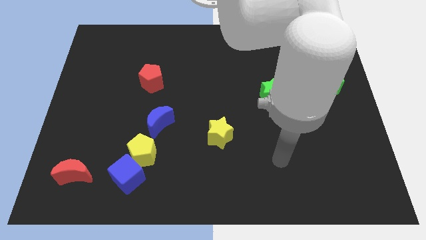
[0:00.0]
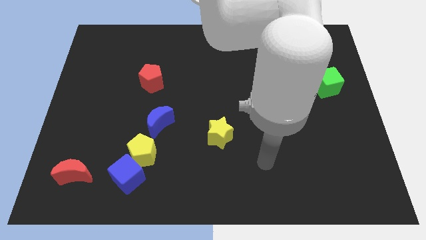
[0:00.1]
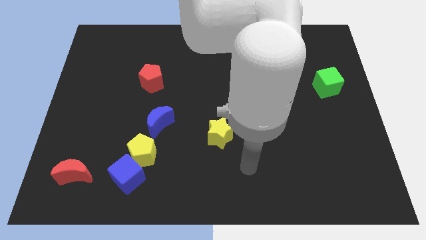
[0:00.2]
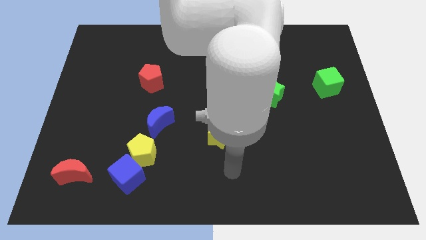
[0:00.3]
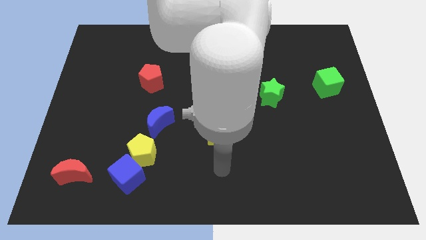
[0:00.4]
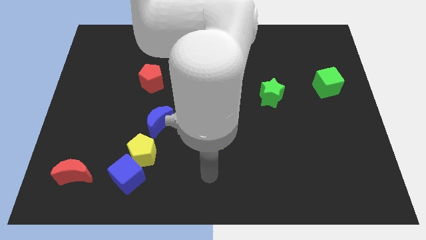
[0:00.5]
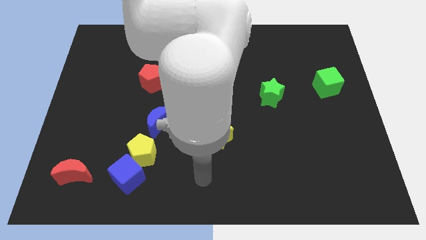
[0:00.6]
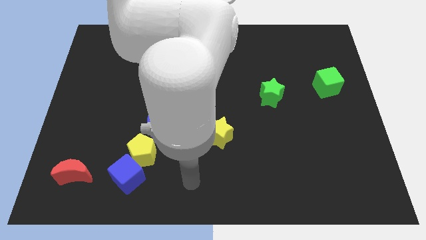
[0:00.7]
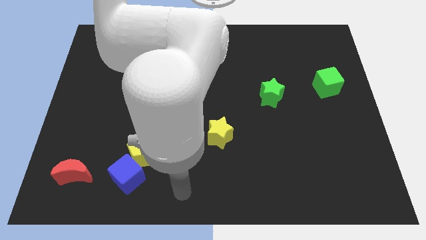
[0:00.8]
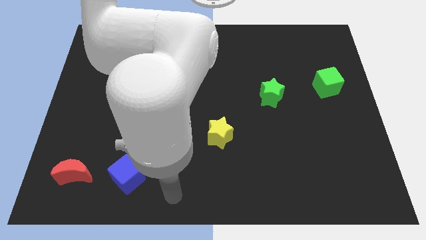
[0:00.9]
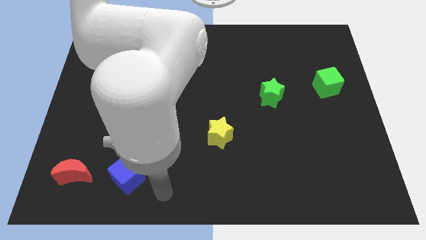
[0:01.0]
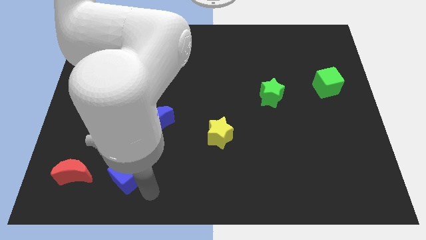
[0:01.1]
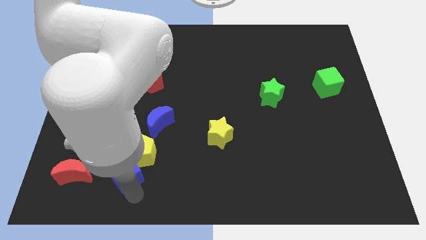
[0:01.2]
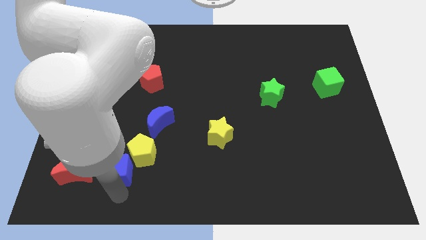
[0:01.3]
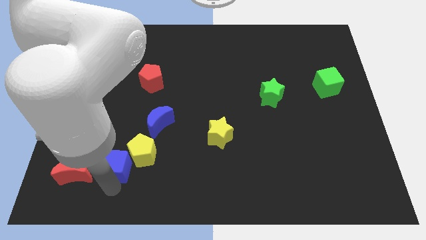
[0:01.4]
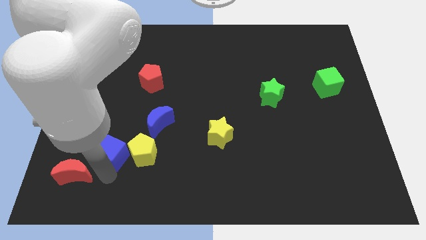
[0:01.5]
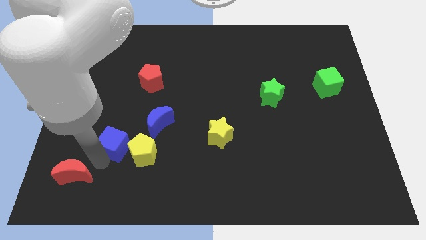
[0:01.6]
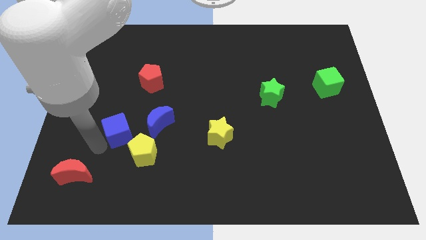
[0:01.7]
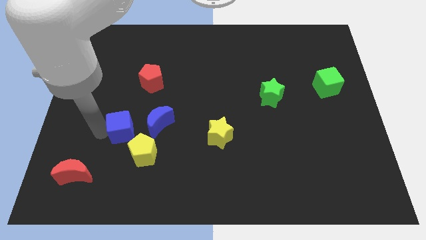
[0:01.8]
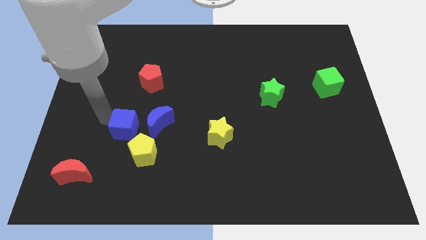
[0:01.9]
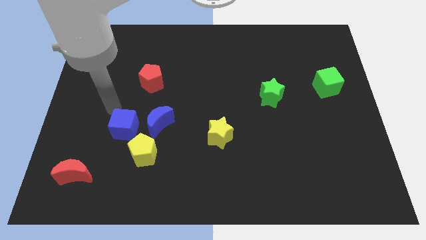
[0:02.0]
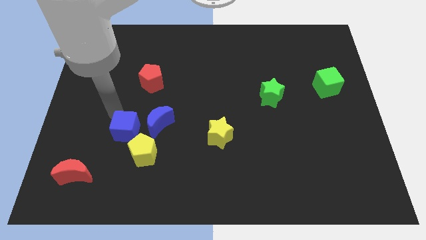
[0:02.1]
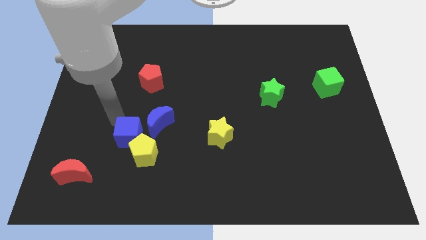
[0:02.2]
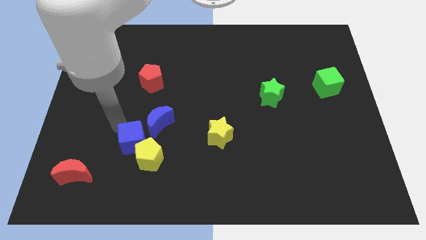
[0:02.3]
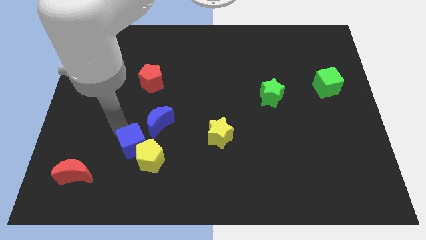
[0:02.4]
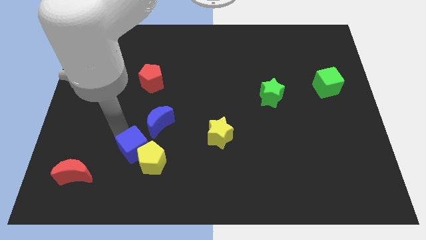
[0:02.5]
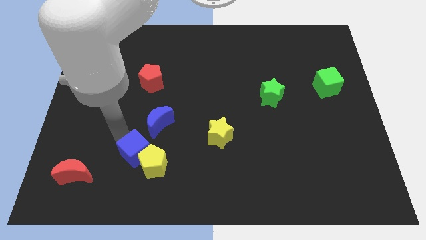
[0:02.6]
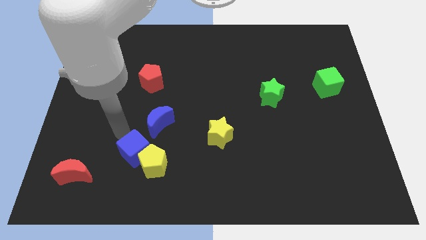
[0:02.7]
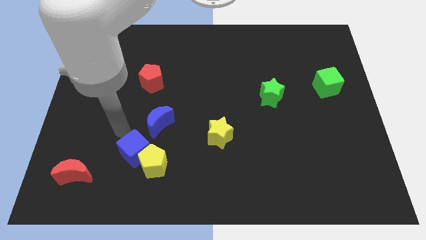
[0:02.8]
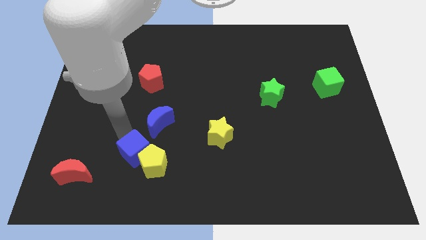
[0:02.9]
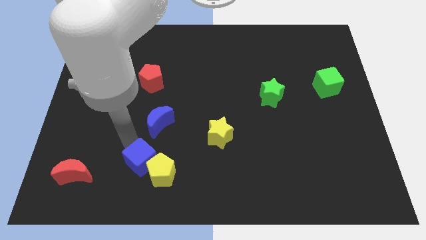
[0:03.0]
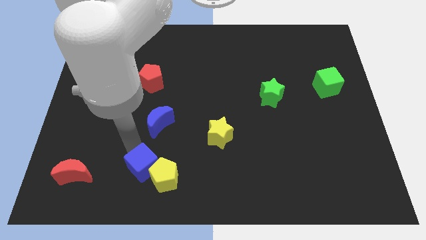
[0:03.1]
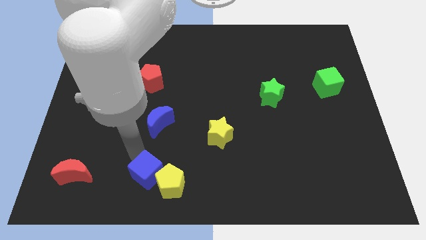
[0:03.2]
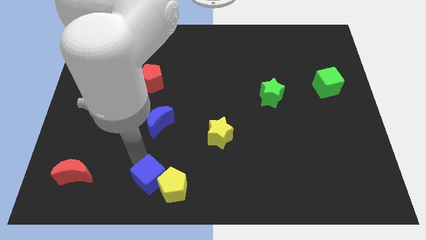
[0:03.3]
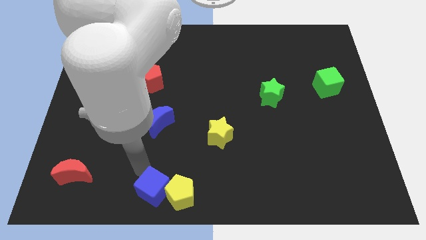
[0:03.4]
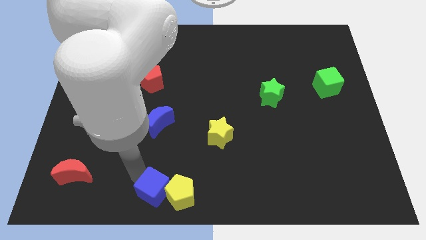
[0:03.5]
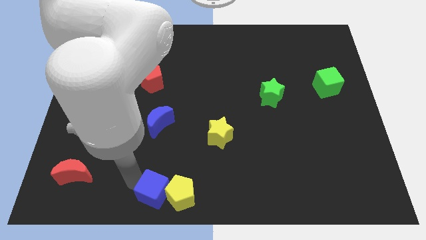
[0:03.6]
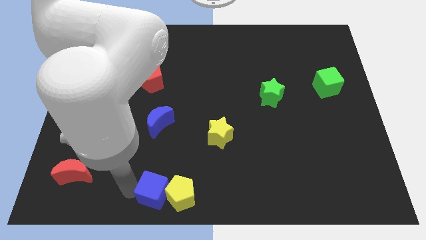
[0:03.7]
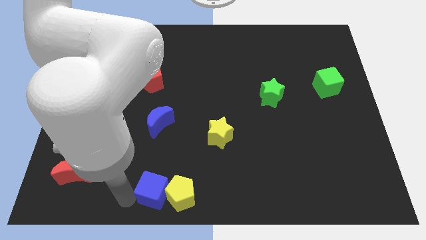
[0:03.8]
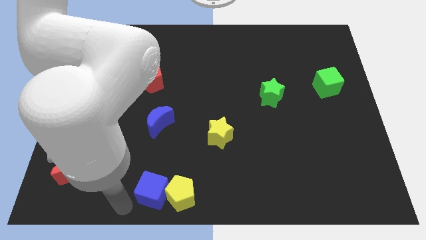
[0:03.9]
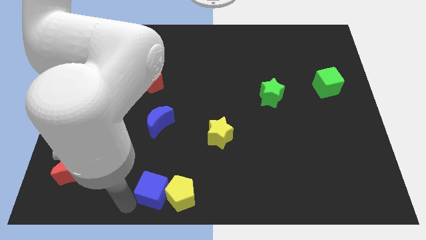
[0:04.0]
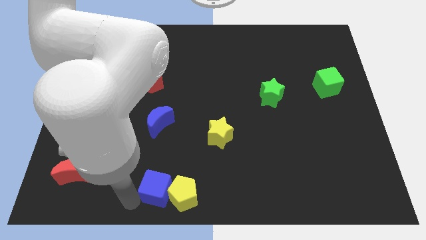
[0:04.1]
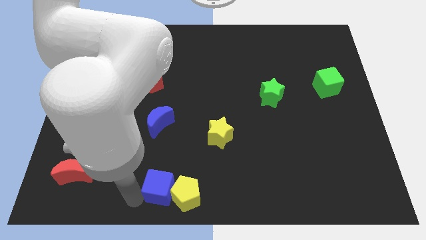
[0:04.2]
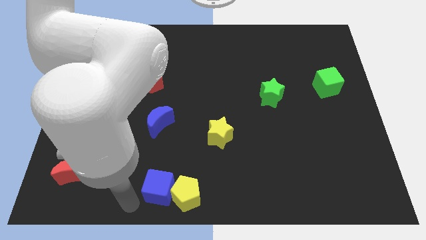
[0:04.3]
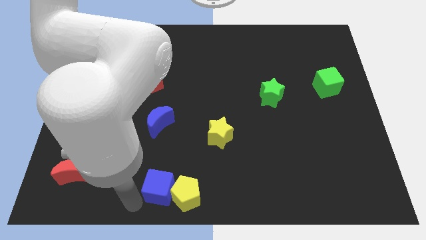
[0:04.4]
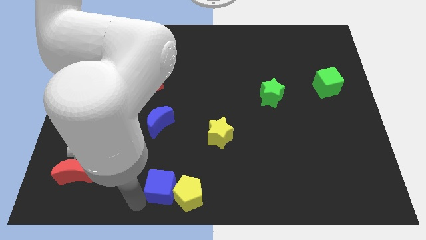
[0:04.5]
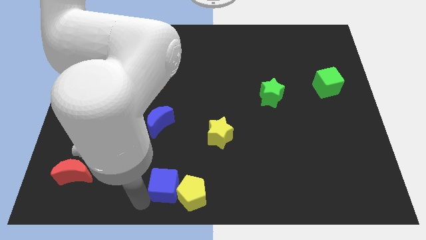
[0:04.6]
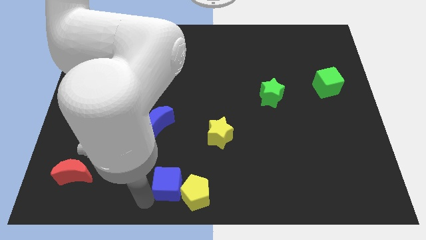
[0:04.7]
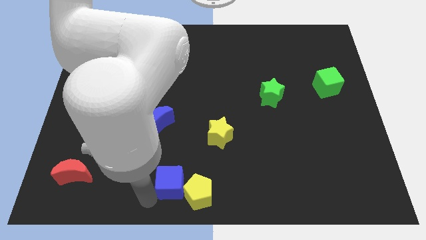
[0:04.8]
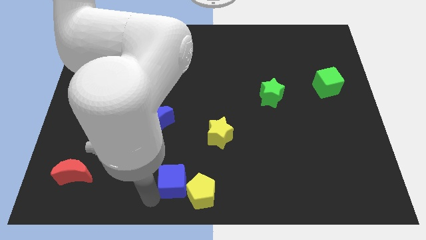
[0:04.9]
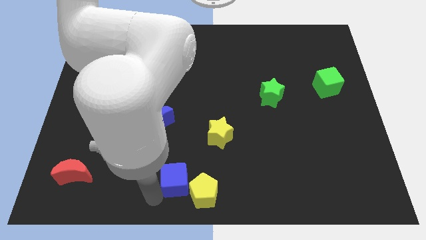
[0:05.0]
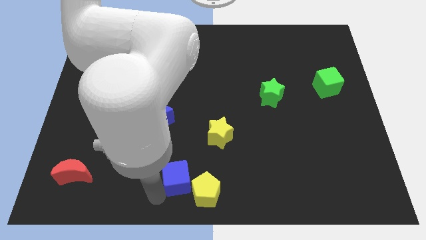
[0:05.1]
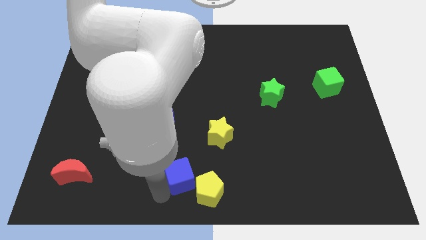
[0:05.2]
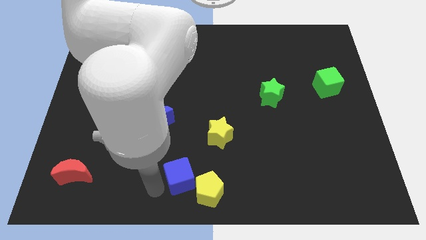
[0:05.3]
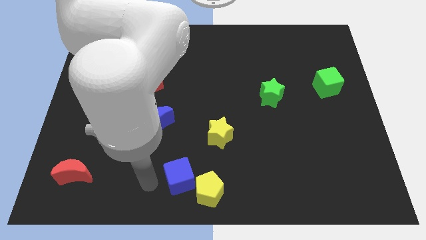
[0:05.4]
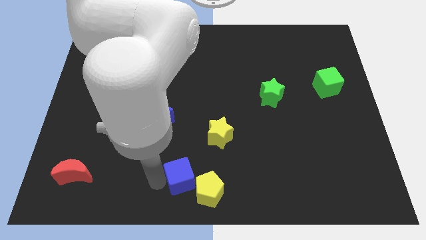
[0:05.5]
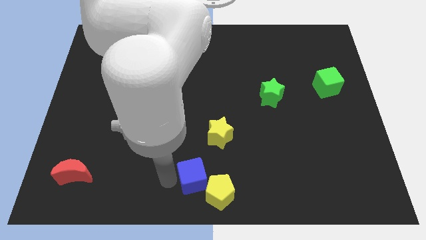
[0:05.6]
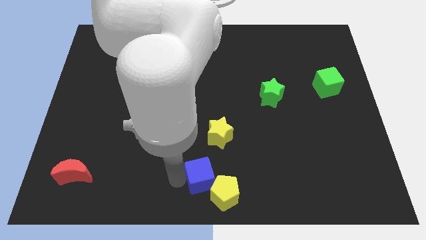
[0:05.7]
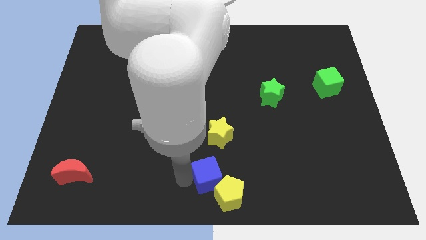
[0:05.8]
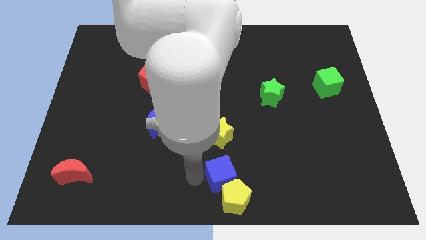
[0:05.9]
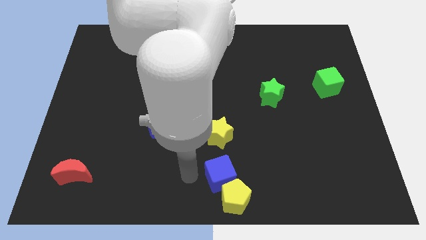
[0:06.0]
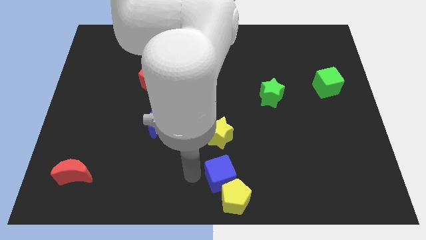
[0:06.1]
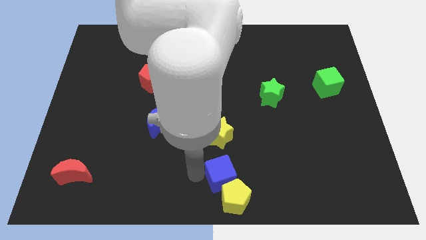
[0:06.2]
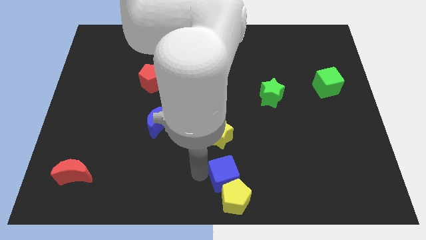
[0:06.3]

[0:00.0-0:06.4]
slide the blue cube to the right

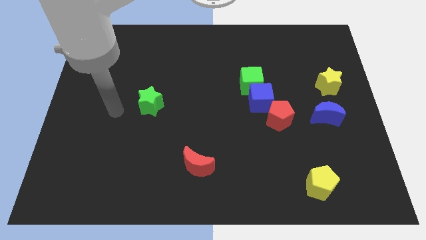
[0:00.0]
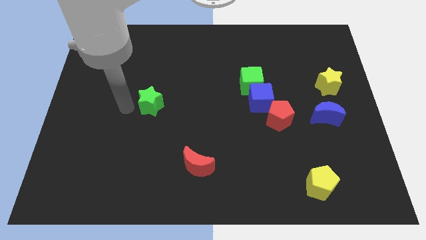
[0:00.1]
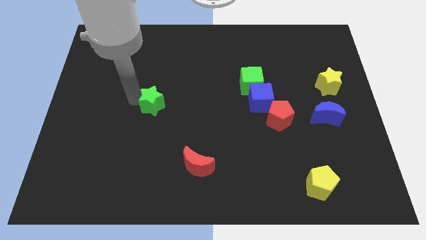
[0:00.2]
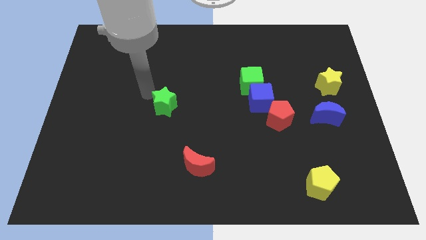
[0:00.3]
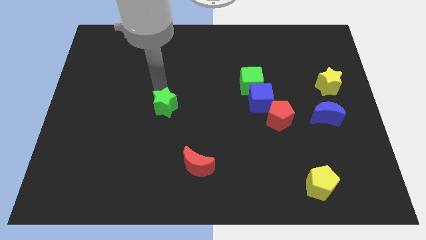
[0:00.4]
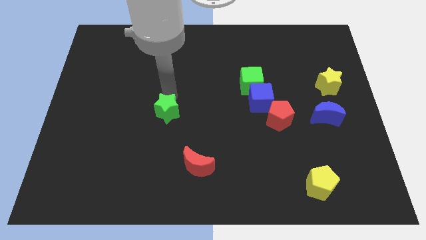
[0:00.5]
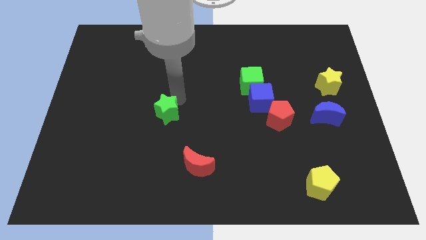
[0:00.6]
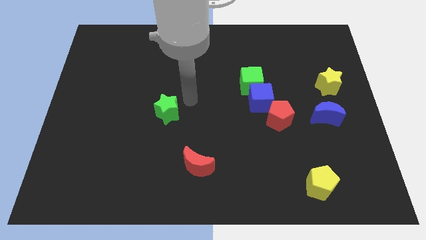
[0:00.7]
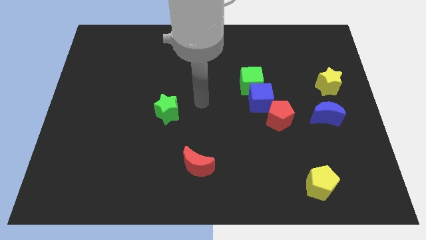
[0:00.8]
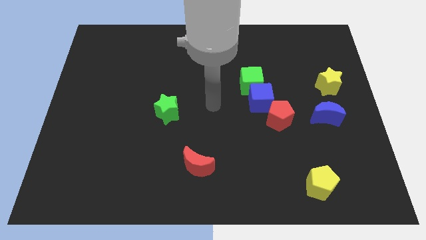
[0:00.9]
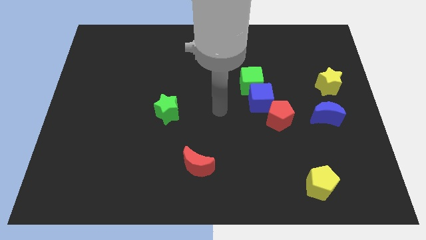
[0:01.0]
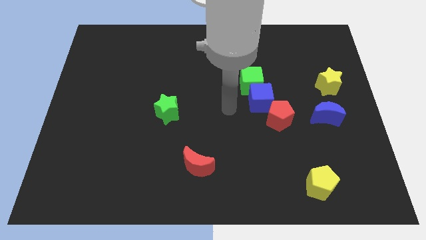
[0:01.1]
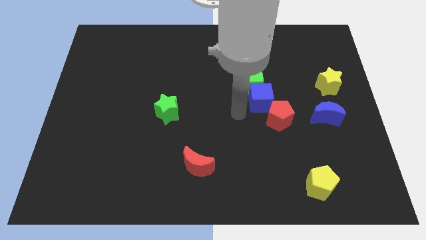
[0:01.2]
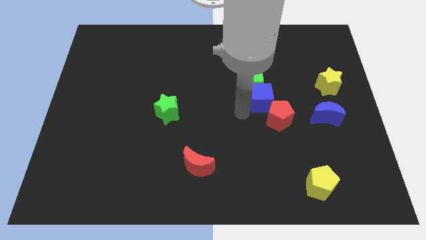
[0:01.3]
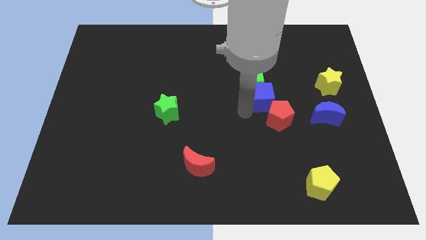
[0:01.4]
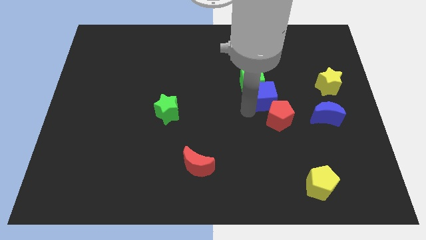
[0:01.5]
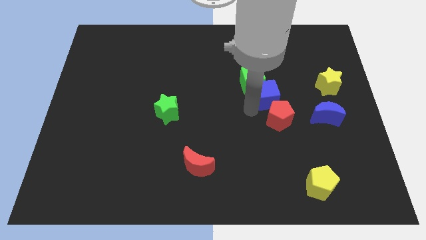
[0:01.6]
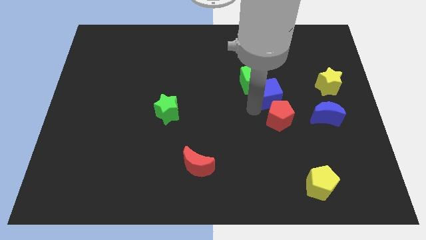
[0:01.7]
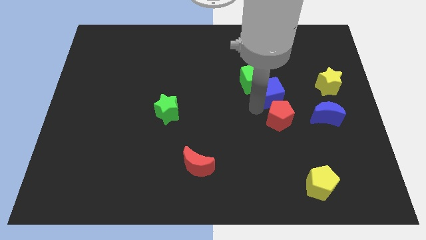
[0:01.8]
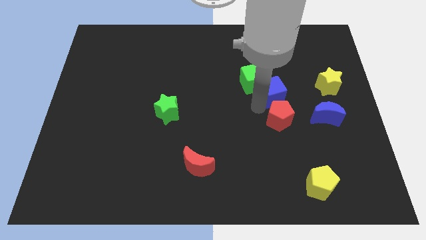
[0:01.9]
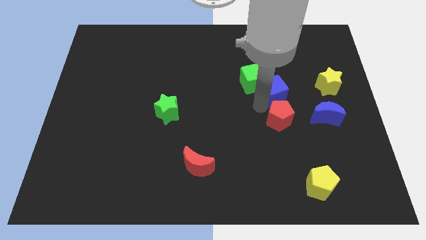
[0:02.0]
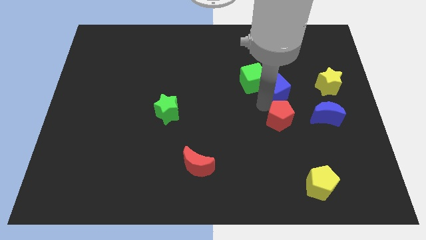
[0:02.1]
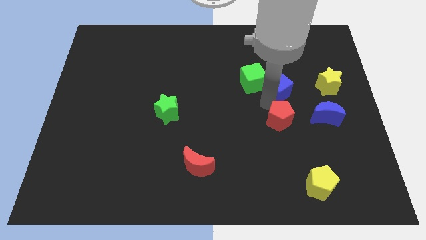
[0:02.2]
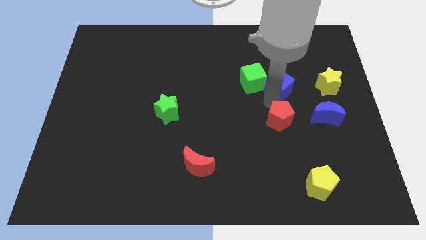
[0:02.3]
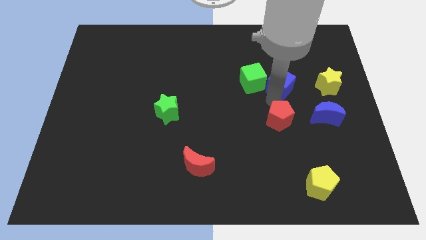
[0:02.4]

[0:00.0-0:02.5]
push the blue cube a little upwards and right diagonally
